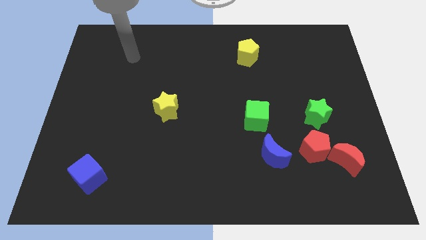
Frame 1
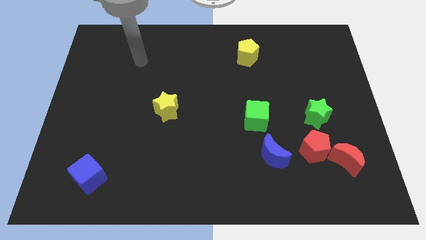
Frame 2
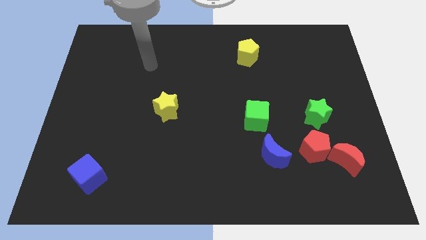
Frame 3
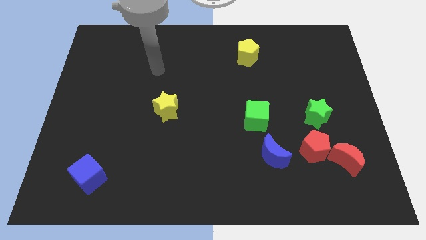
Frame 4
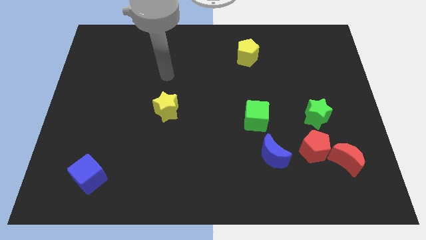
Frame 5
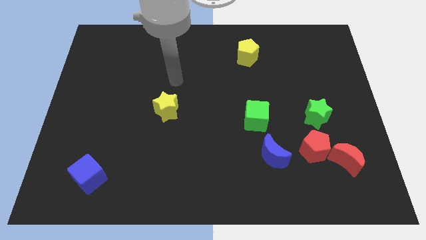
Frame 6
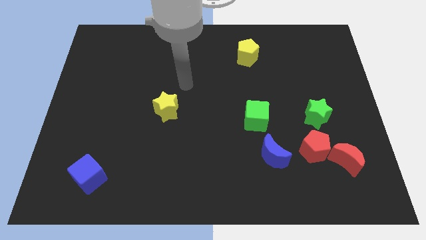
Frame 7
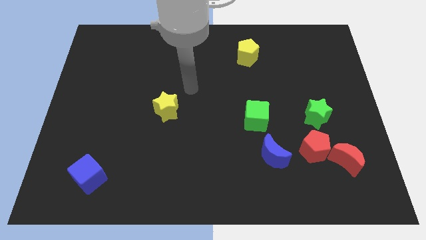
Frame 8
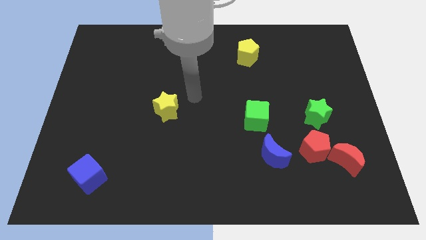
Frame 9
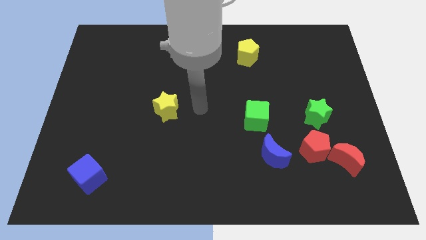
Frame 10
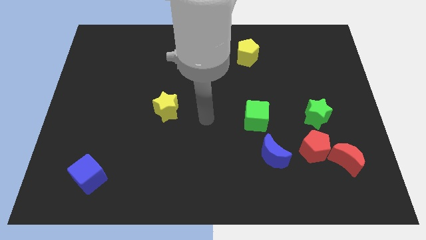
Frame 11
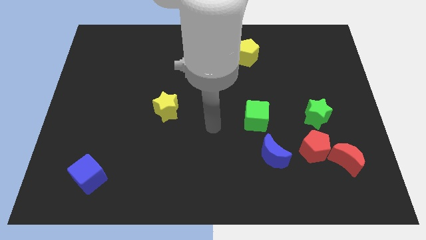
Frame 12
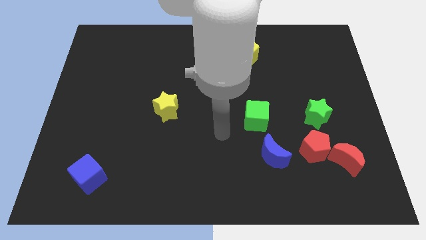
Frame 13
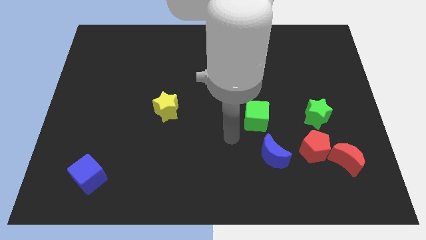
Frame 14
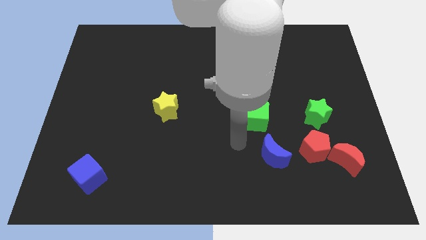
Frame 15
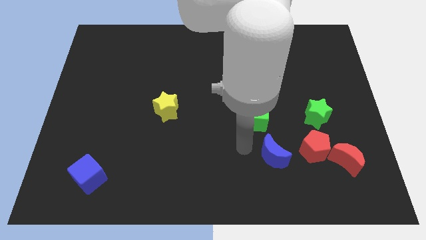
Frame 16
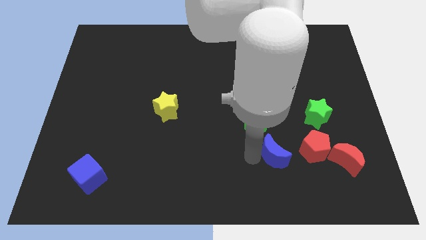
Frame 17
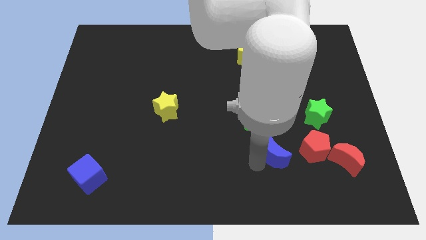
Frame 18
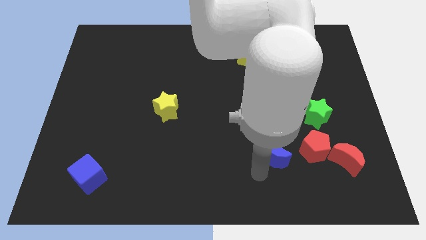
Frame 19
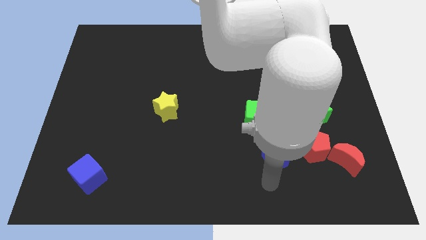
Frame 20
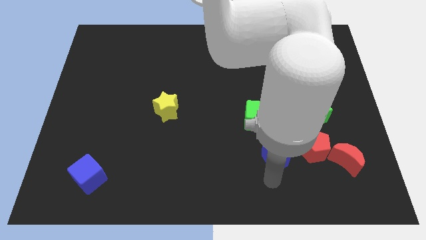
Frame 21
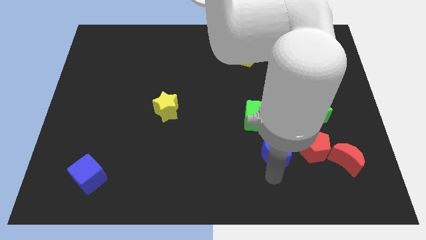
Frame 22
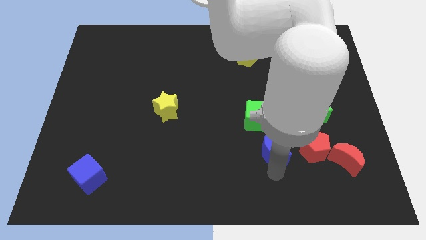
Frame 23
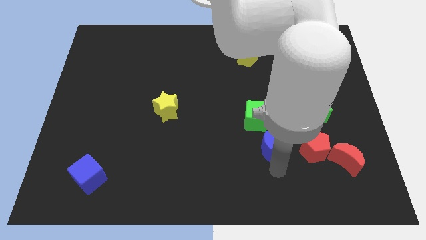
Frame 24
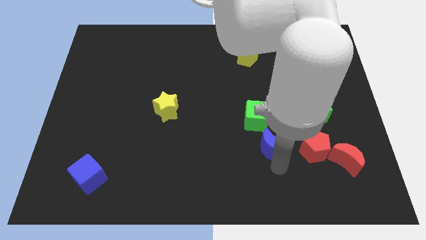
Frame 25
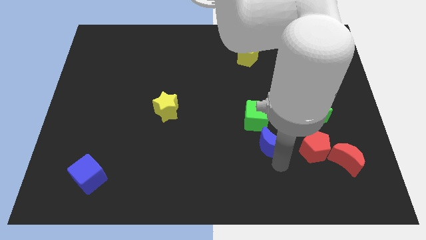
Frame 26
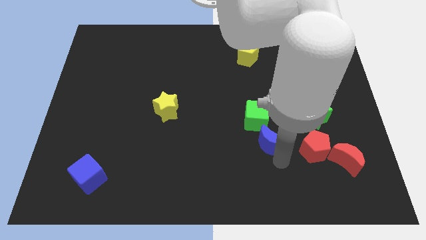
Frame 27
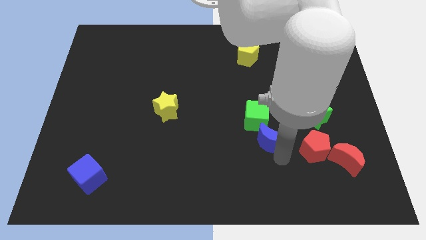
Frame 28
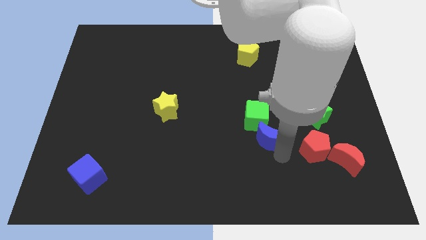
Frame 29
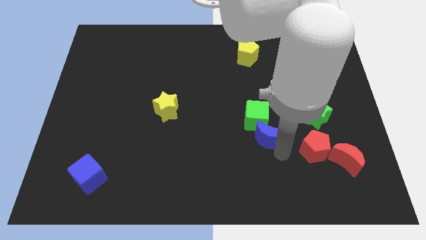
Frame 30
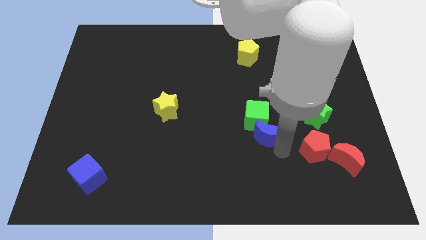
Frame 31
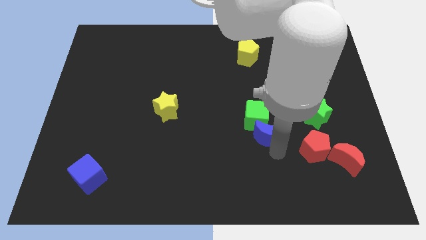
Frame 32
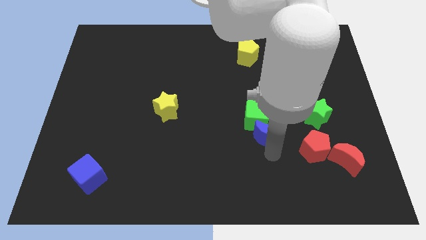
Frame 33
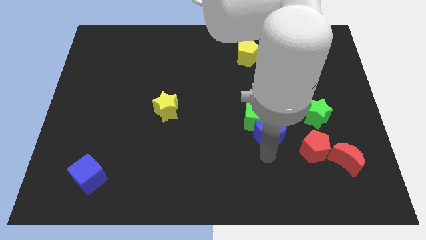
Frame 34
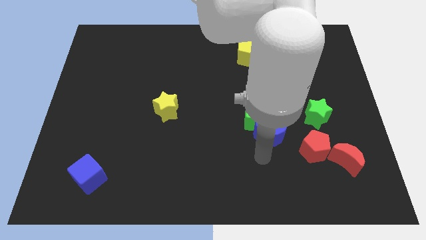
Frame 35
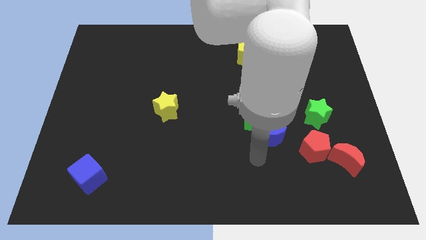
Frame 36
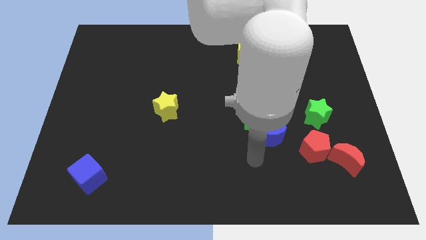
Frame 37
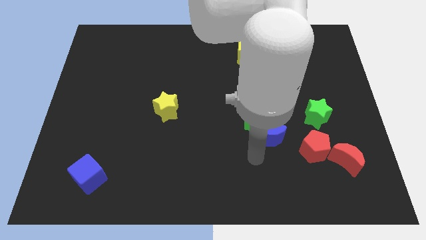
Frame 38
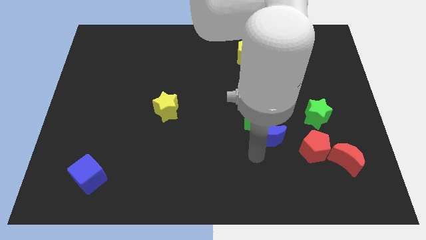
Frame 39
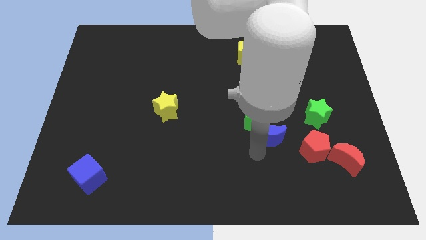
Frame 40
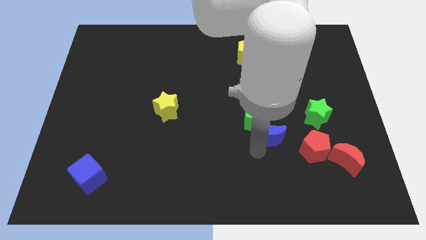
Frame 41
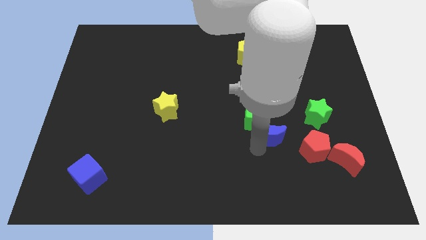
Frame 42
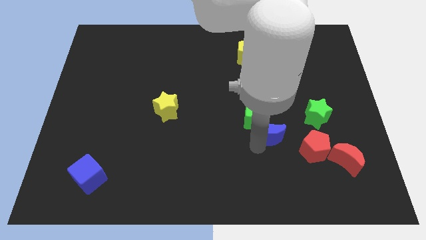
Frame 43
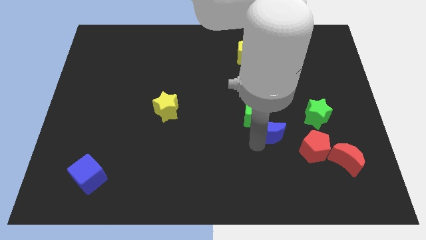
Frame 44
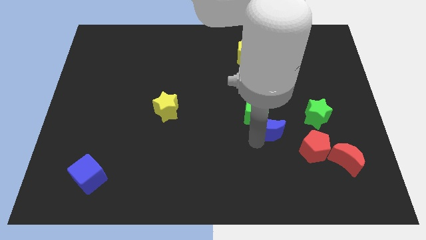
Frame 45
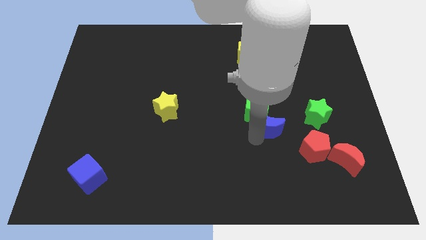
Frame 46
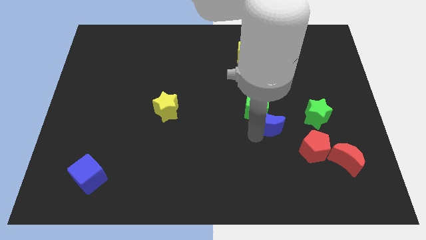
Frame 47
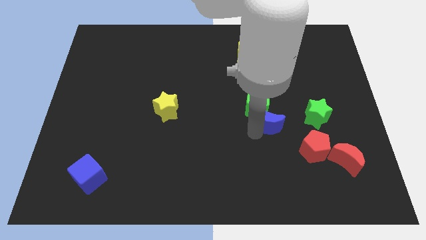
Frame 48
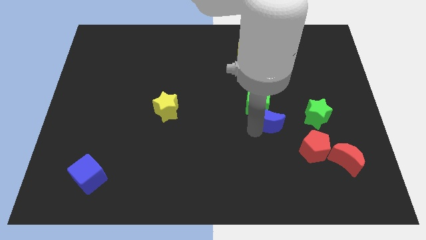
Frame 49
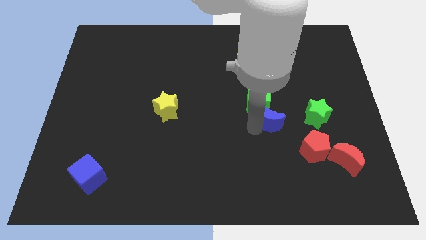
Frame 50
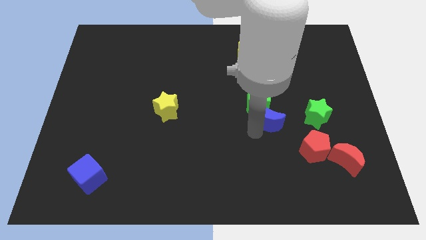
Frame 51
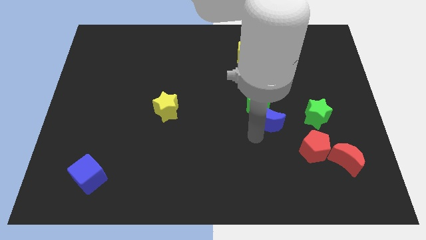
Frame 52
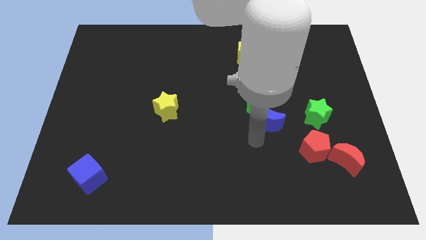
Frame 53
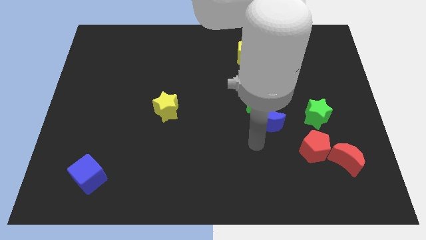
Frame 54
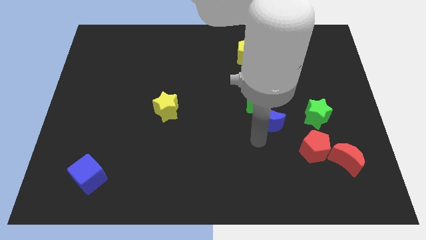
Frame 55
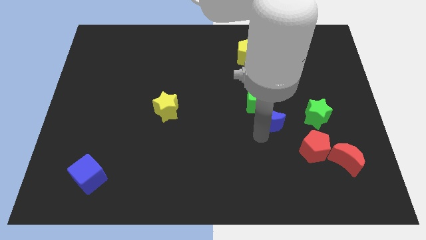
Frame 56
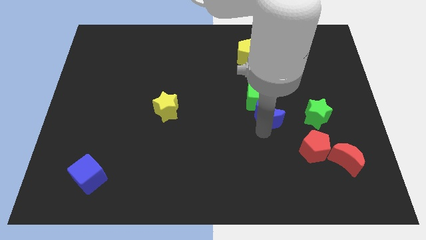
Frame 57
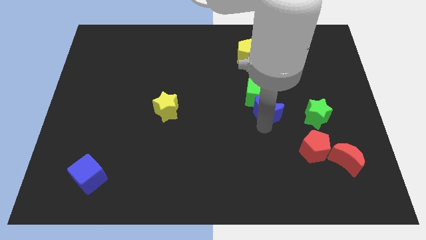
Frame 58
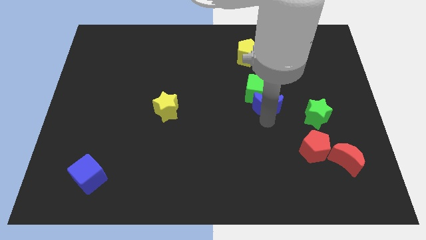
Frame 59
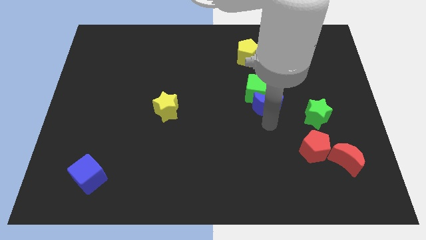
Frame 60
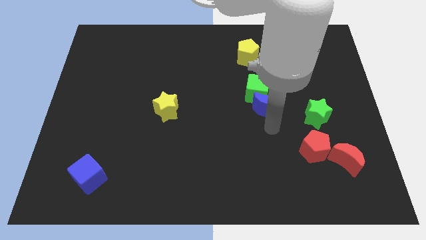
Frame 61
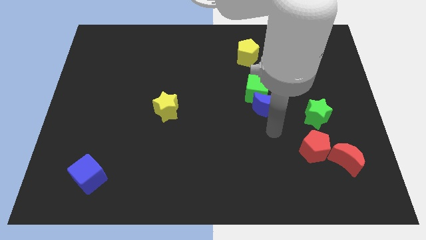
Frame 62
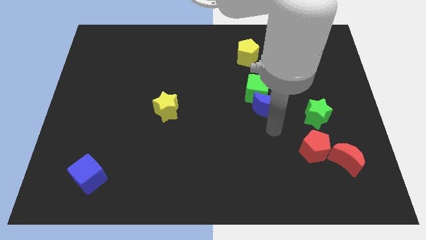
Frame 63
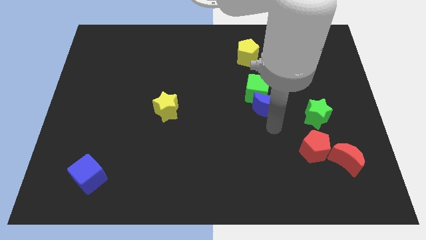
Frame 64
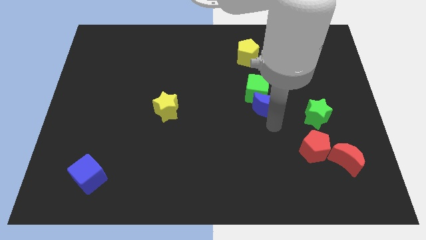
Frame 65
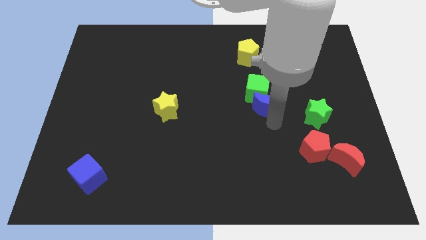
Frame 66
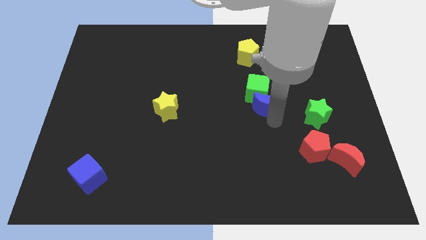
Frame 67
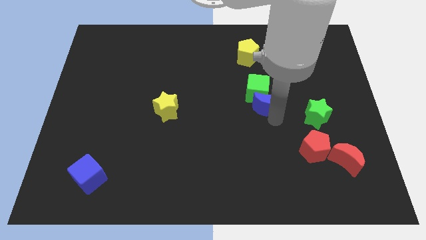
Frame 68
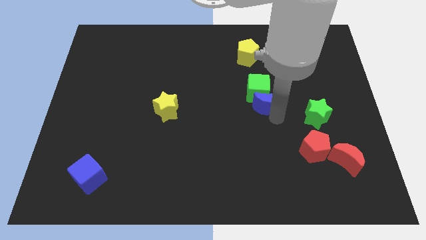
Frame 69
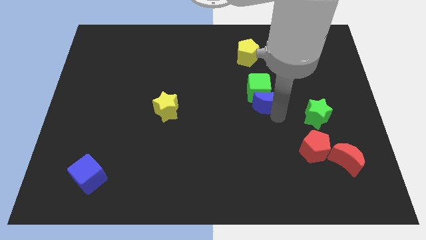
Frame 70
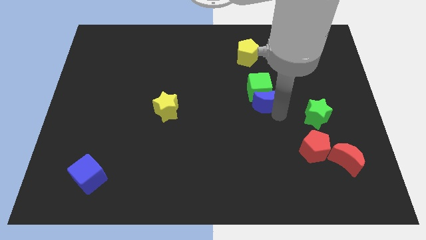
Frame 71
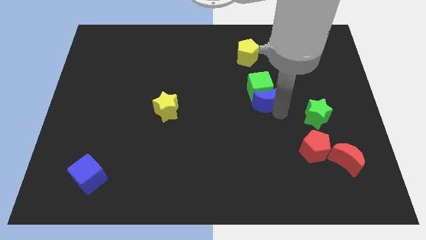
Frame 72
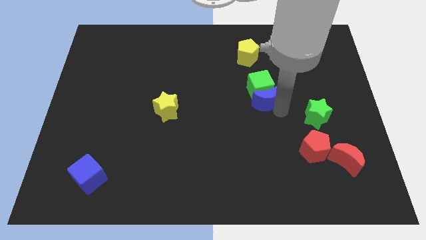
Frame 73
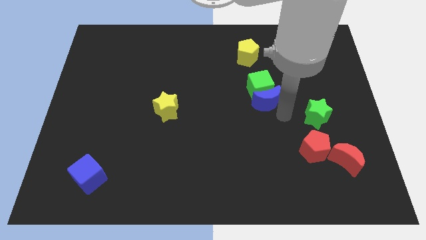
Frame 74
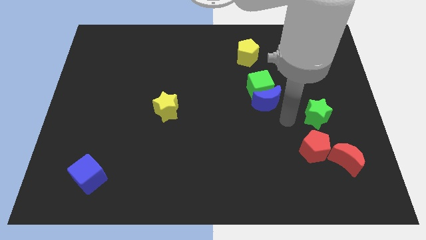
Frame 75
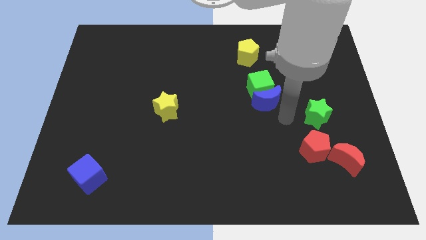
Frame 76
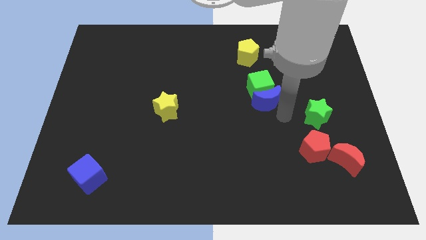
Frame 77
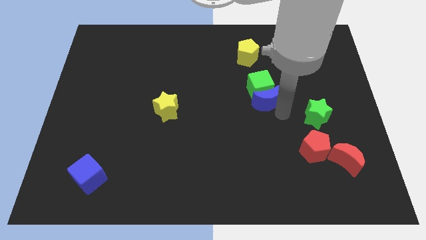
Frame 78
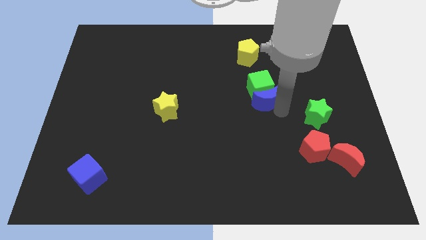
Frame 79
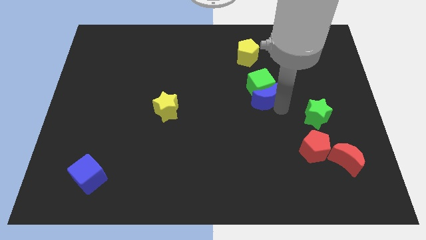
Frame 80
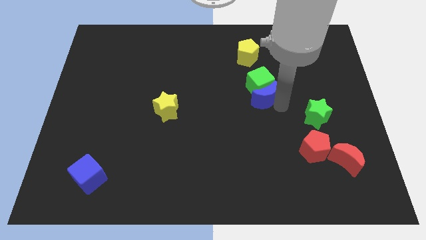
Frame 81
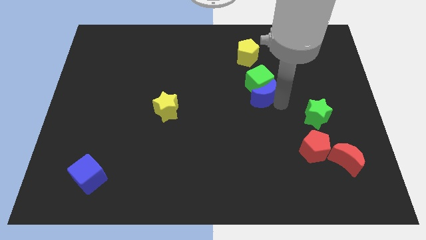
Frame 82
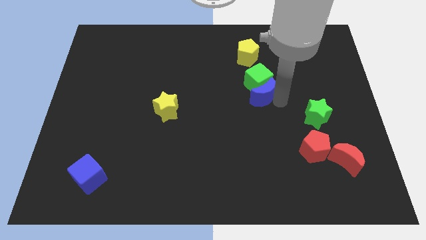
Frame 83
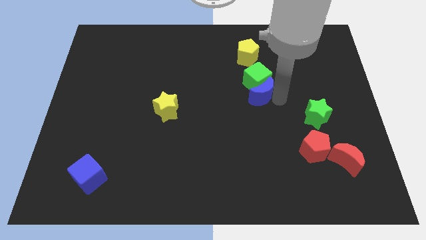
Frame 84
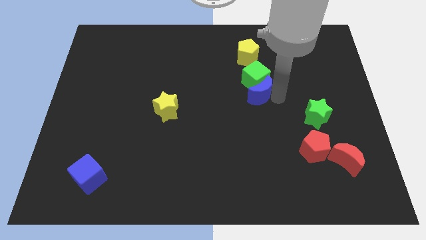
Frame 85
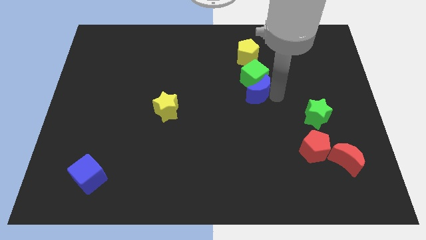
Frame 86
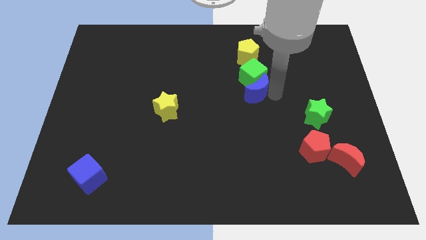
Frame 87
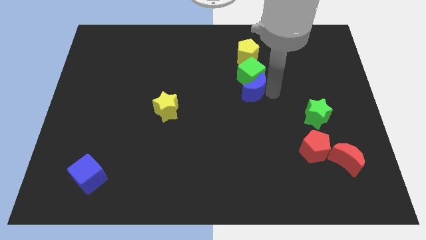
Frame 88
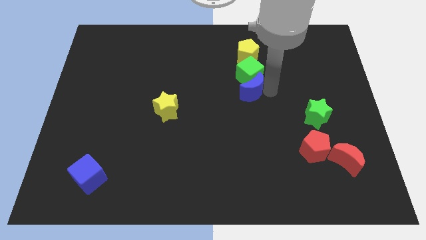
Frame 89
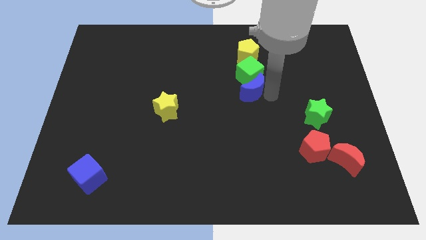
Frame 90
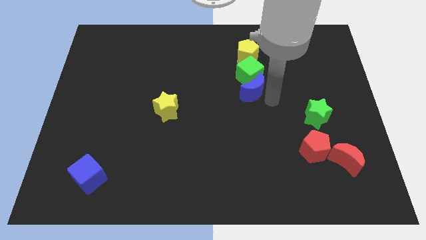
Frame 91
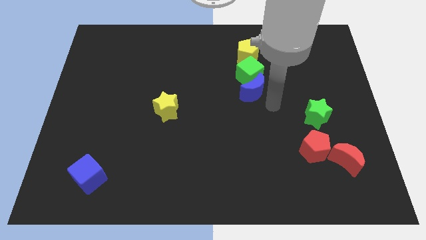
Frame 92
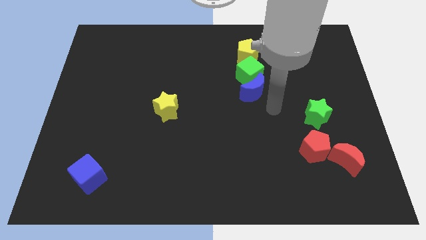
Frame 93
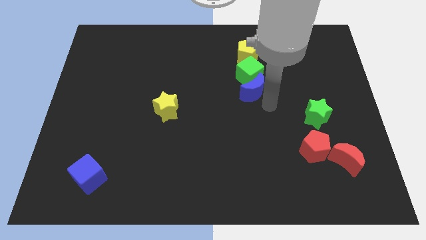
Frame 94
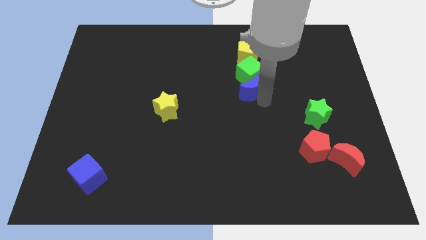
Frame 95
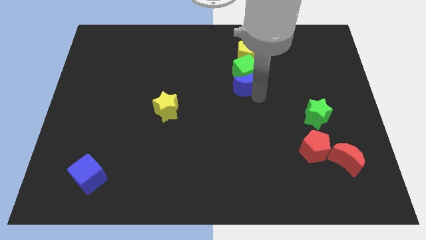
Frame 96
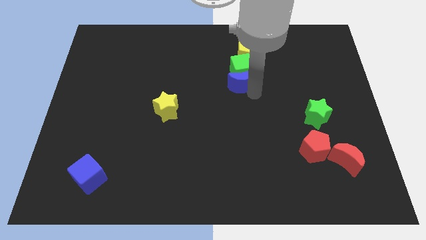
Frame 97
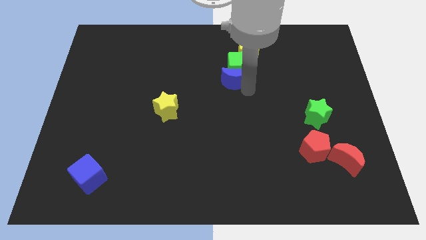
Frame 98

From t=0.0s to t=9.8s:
put the blue moon to the bottom left side of the yellow pentagon
